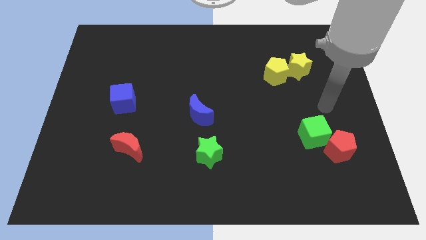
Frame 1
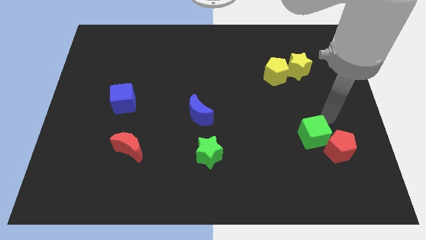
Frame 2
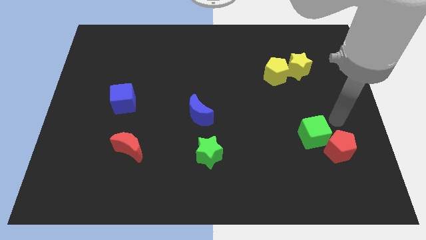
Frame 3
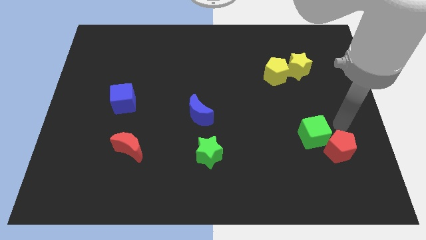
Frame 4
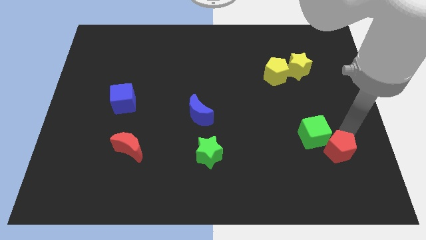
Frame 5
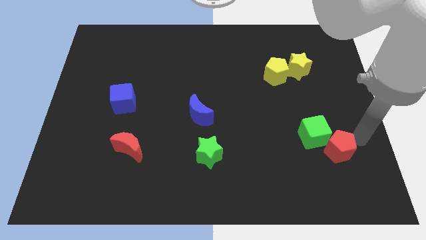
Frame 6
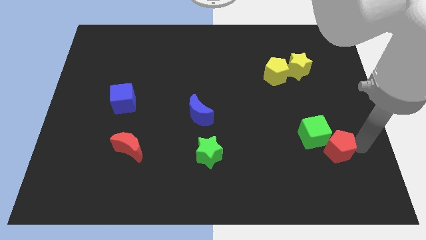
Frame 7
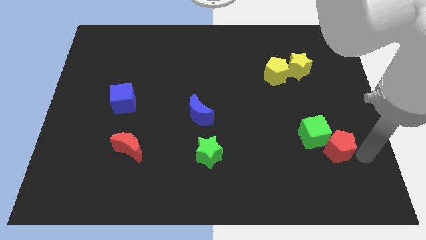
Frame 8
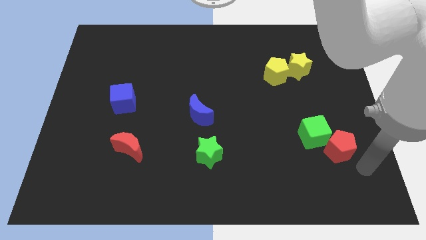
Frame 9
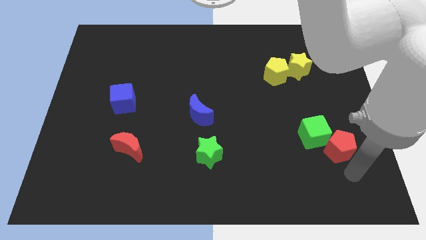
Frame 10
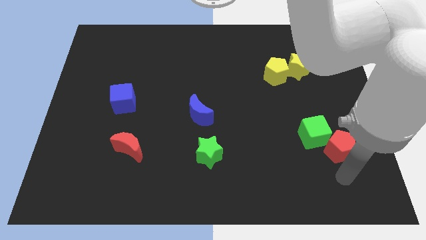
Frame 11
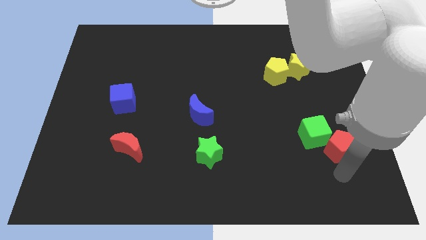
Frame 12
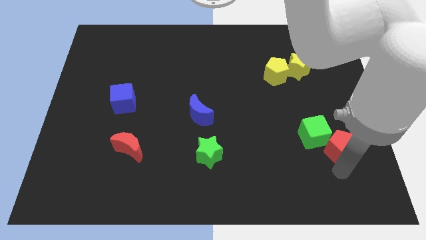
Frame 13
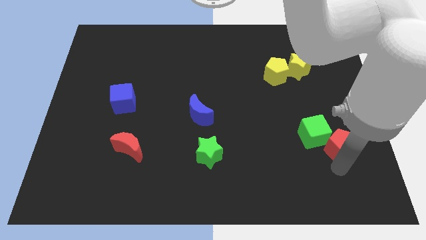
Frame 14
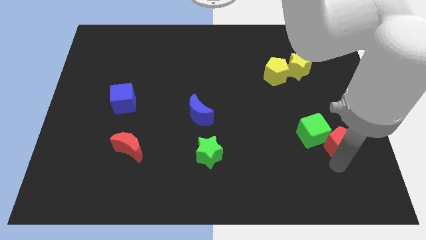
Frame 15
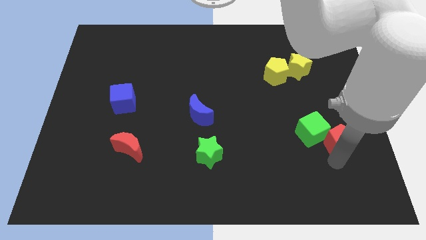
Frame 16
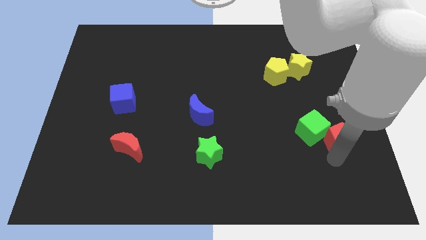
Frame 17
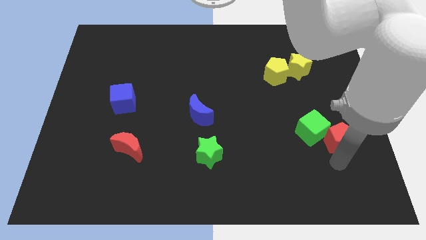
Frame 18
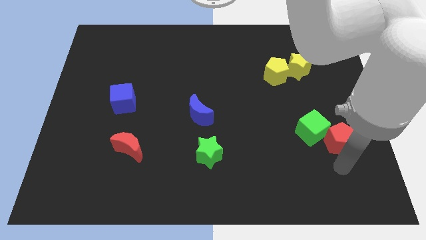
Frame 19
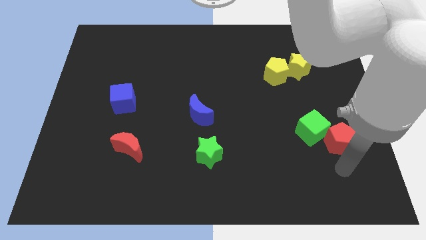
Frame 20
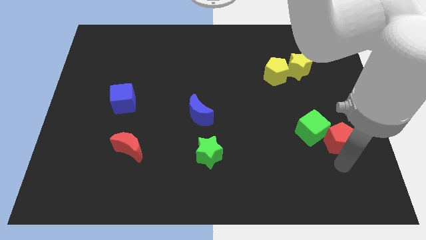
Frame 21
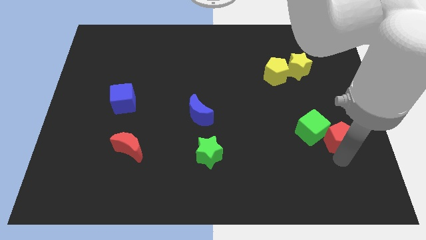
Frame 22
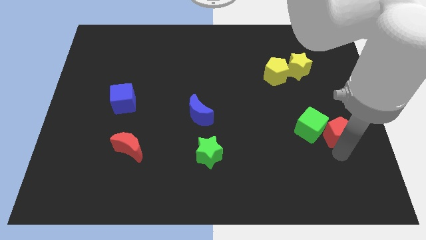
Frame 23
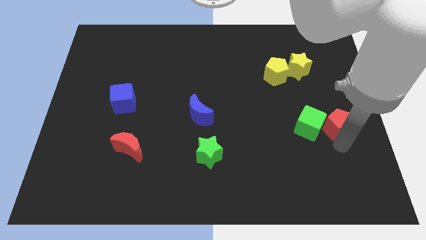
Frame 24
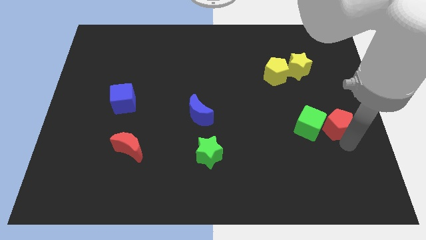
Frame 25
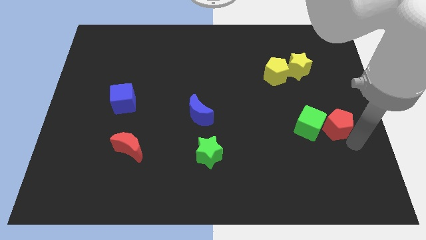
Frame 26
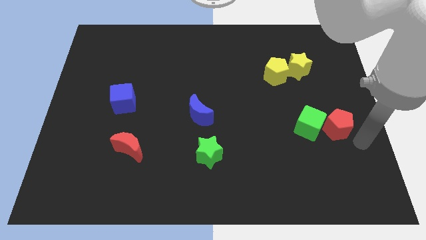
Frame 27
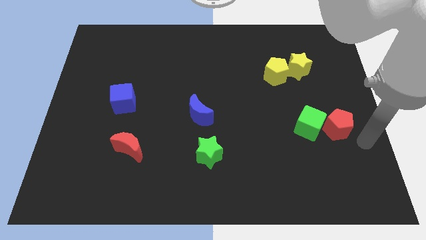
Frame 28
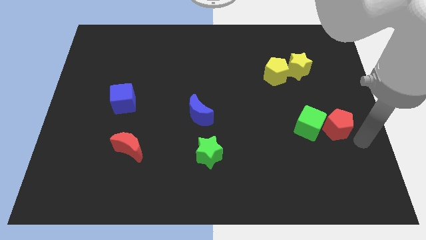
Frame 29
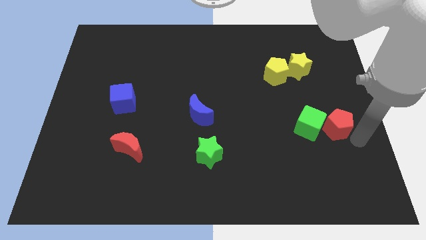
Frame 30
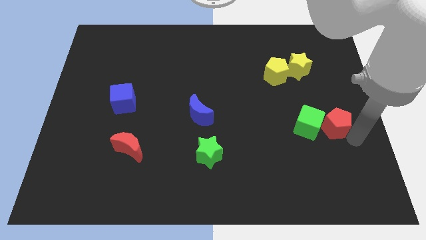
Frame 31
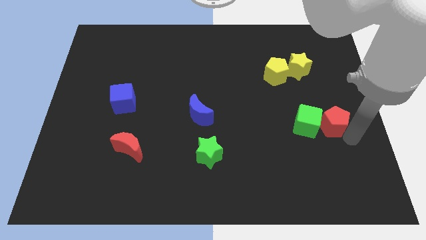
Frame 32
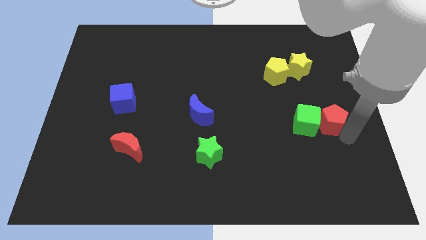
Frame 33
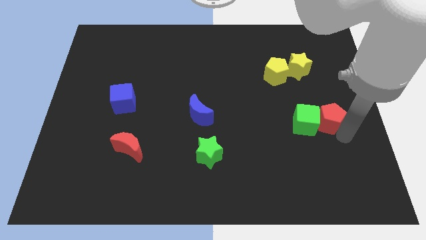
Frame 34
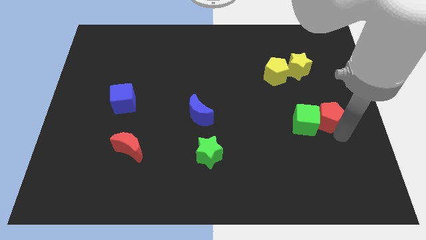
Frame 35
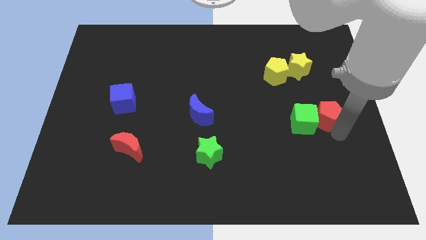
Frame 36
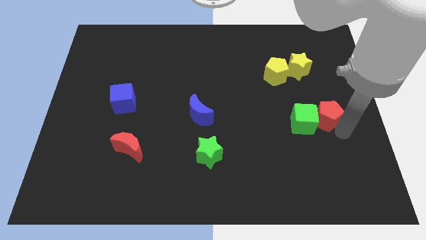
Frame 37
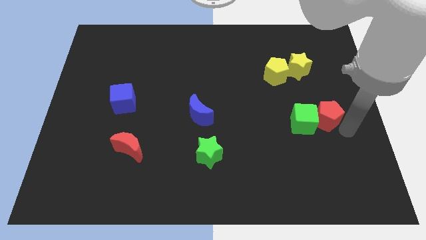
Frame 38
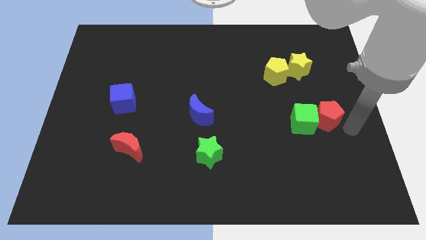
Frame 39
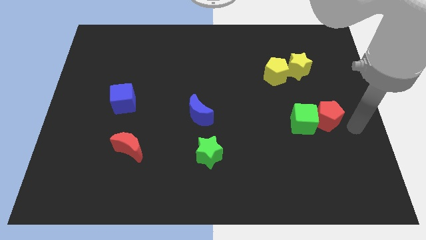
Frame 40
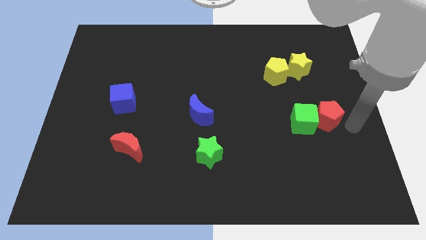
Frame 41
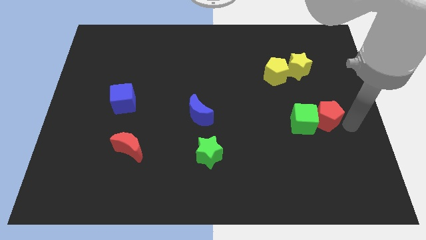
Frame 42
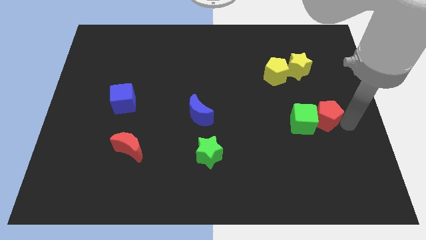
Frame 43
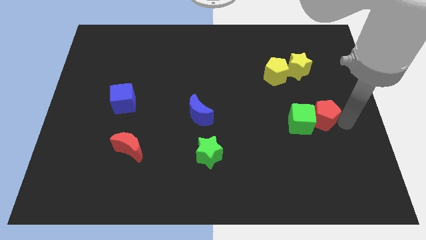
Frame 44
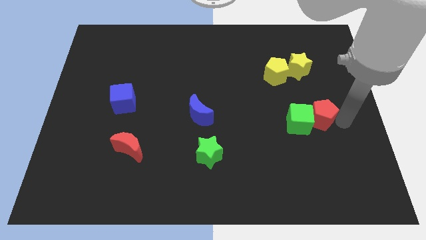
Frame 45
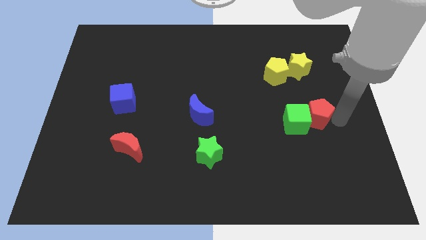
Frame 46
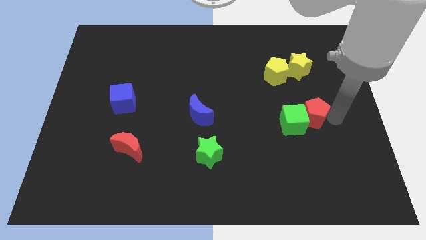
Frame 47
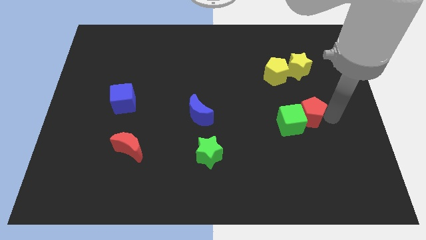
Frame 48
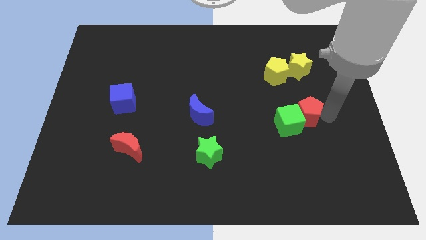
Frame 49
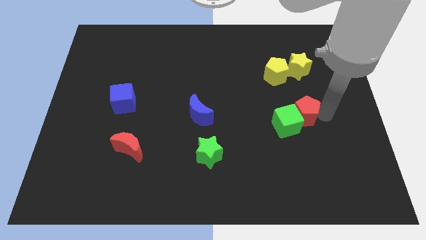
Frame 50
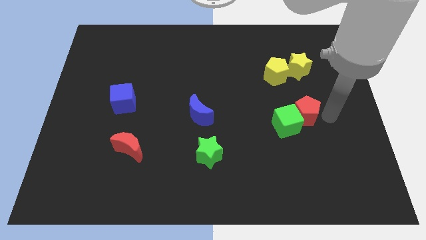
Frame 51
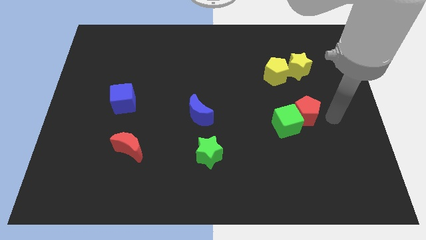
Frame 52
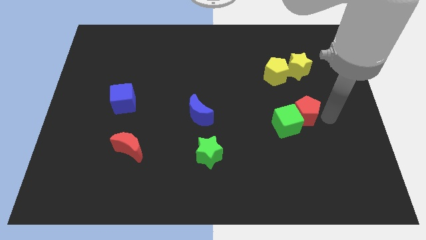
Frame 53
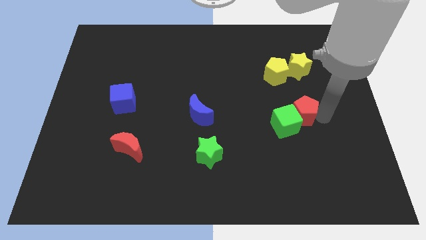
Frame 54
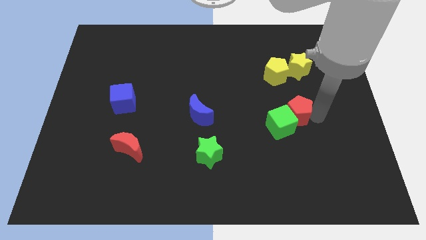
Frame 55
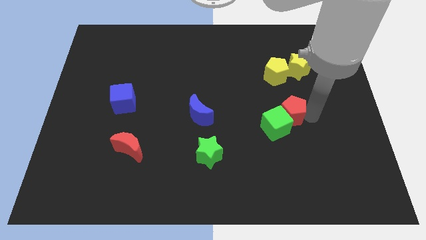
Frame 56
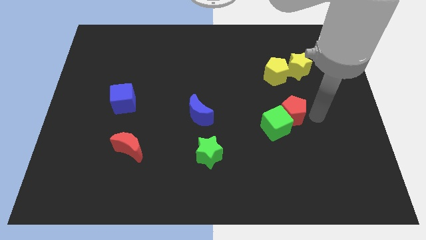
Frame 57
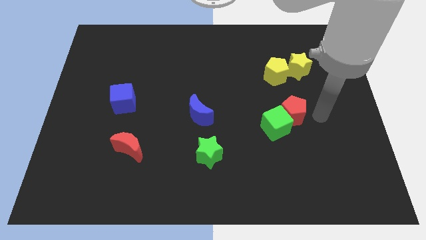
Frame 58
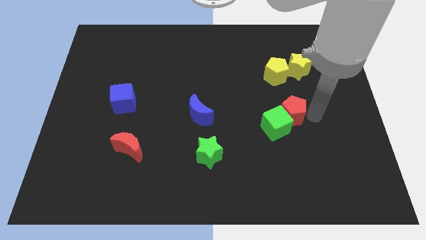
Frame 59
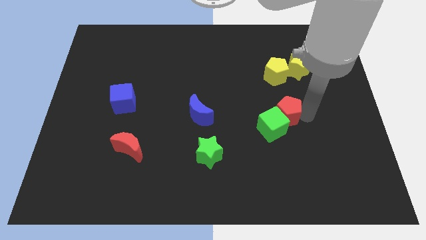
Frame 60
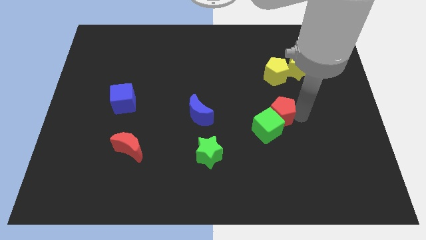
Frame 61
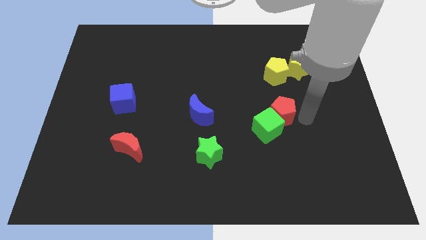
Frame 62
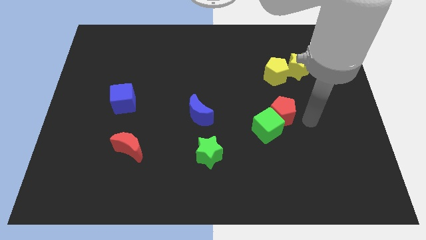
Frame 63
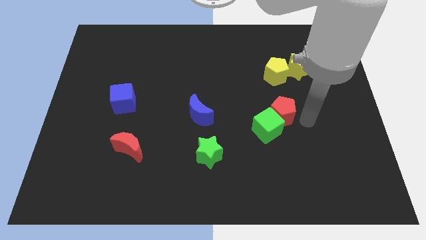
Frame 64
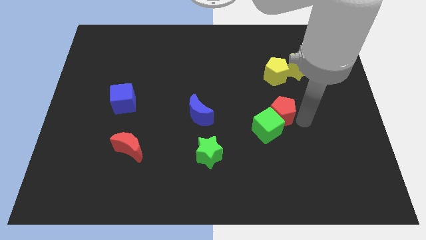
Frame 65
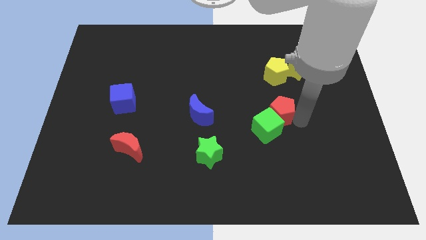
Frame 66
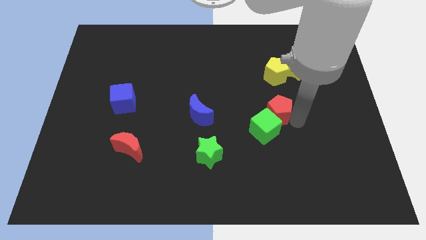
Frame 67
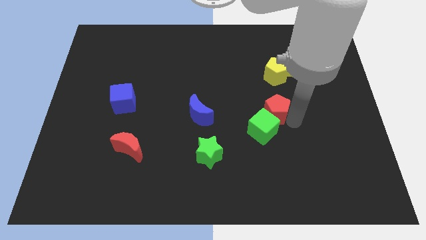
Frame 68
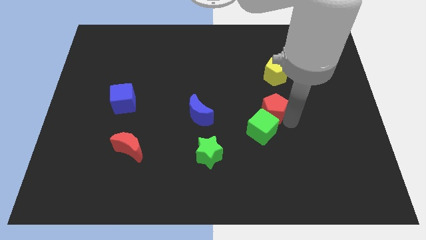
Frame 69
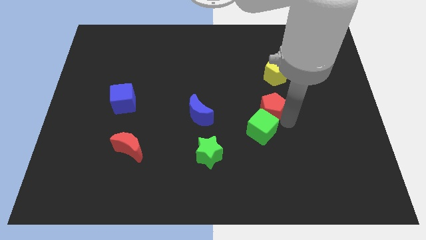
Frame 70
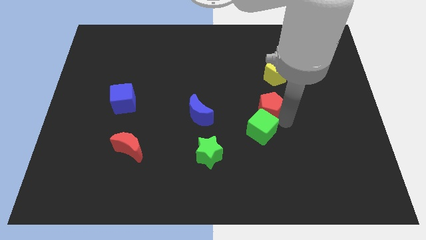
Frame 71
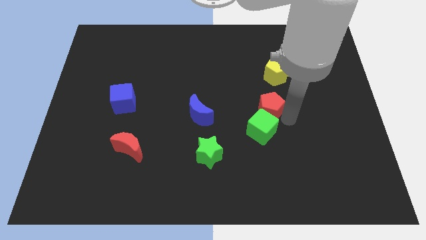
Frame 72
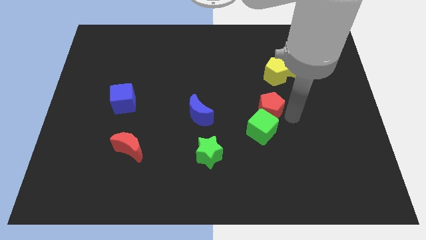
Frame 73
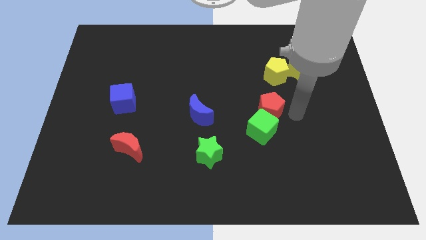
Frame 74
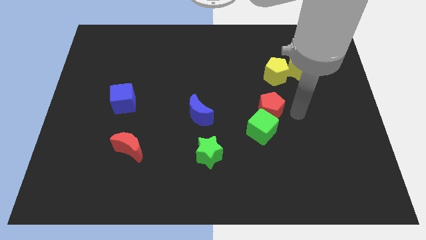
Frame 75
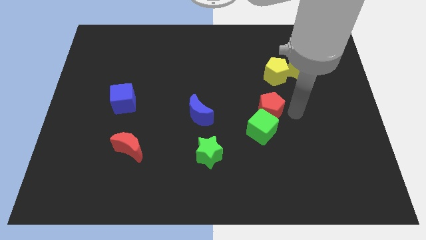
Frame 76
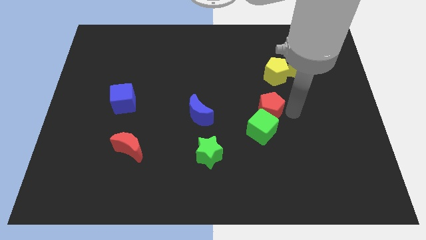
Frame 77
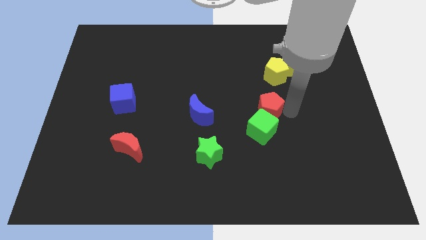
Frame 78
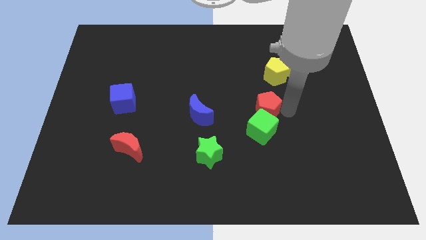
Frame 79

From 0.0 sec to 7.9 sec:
push the red pentagon to the center of the board
